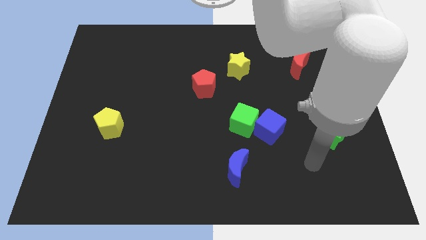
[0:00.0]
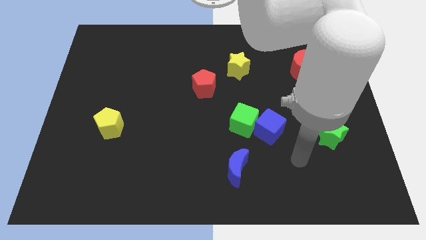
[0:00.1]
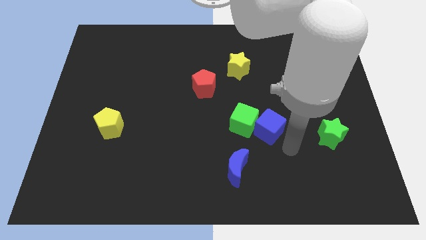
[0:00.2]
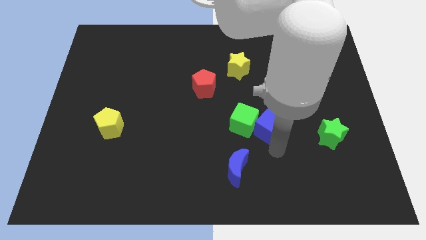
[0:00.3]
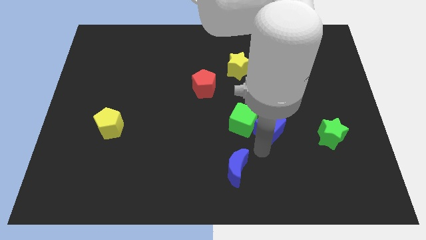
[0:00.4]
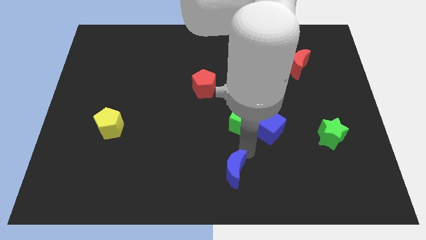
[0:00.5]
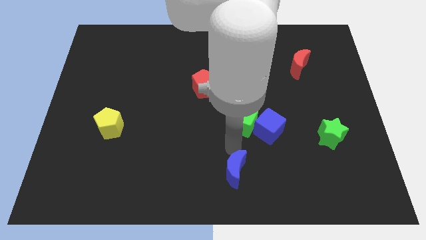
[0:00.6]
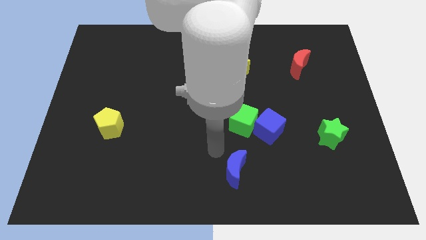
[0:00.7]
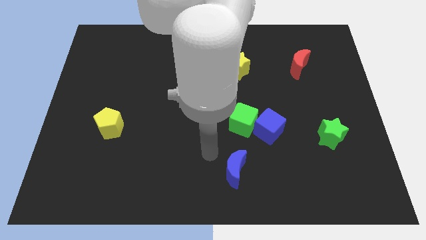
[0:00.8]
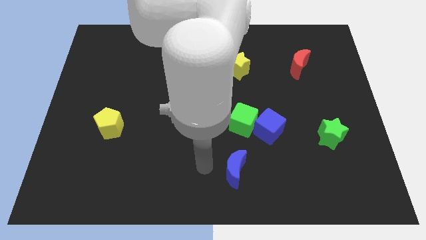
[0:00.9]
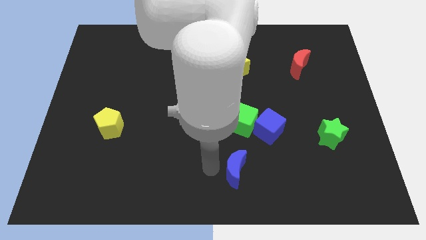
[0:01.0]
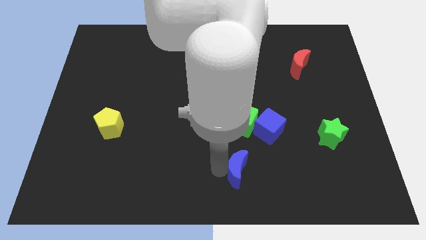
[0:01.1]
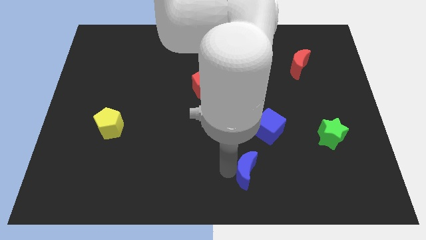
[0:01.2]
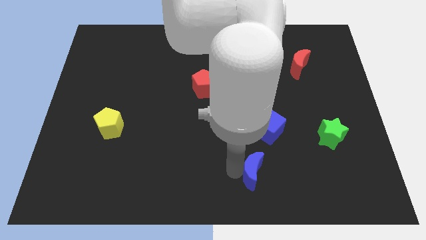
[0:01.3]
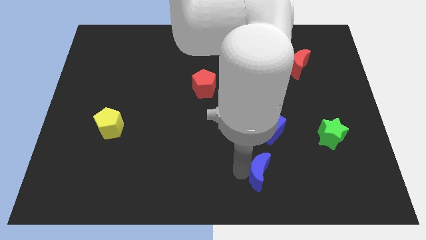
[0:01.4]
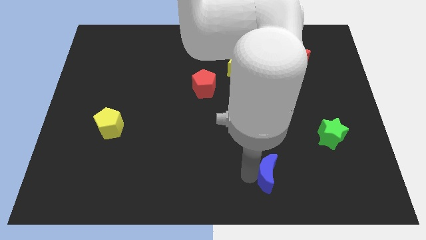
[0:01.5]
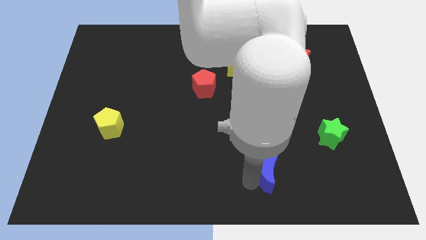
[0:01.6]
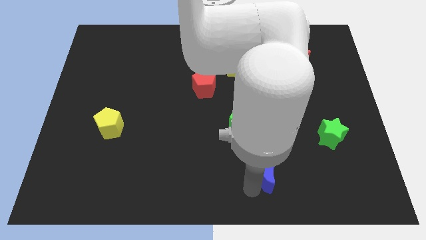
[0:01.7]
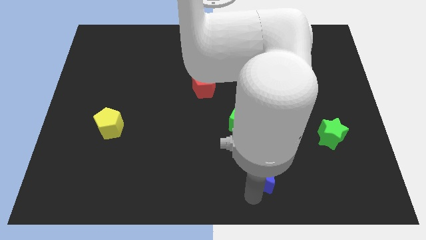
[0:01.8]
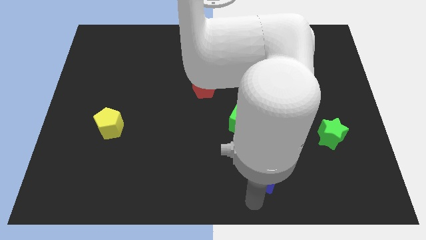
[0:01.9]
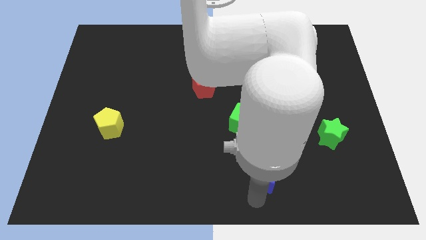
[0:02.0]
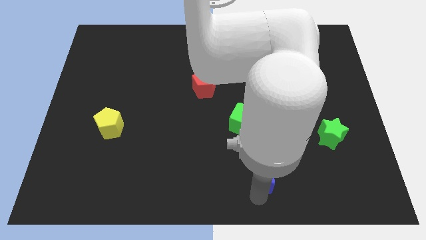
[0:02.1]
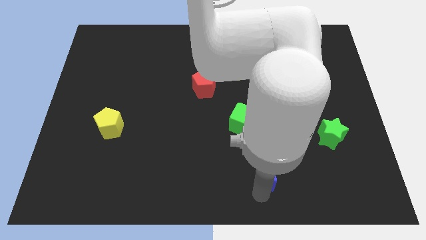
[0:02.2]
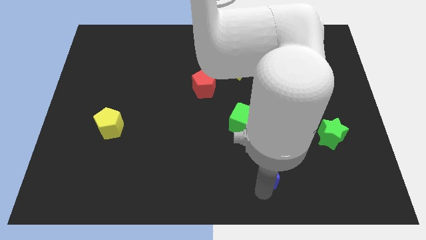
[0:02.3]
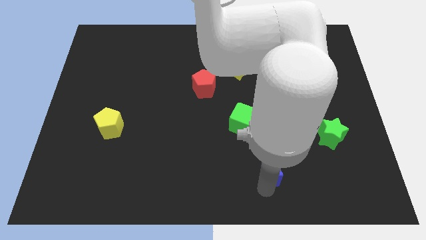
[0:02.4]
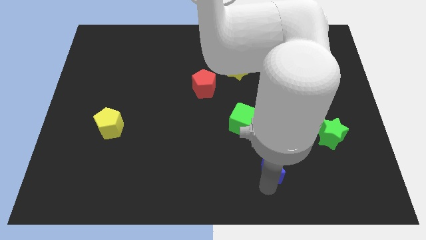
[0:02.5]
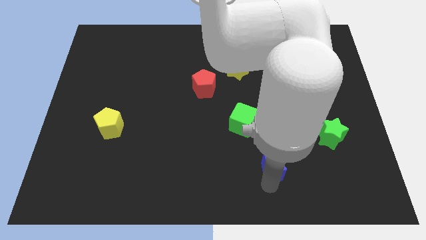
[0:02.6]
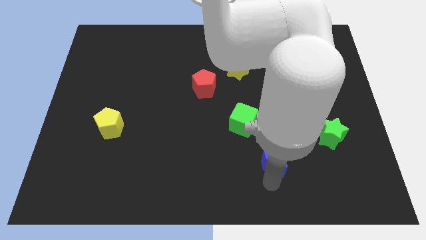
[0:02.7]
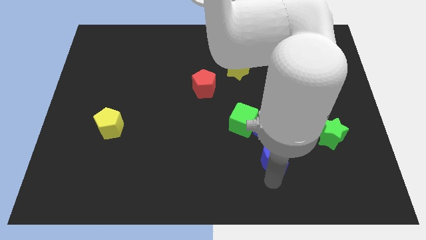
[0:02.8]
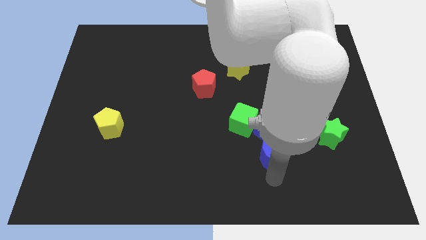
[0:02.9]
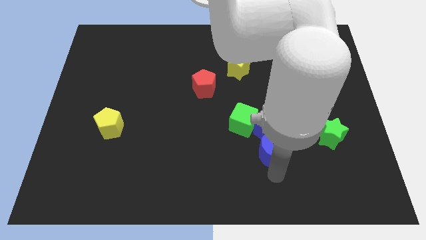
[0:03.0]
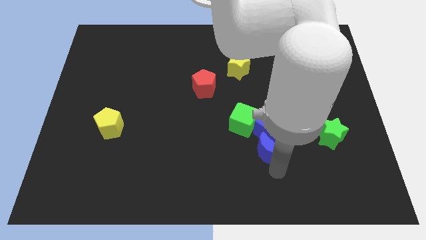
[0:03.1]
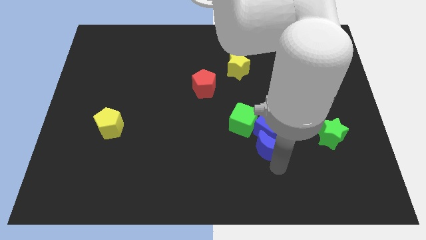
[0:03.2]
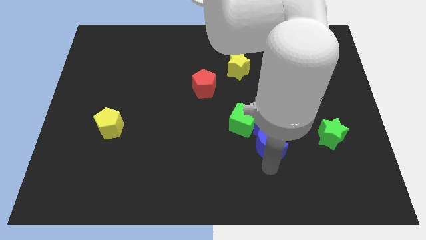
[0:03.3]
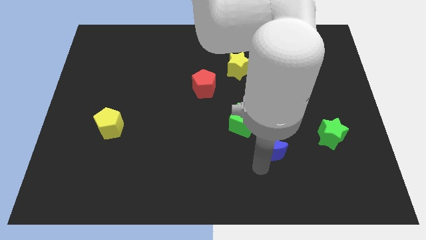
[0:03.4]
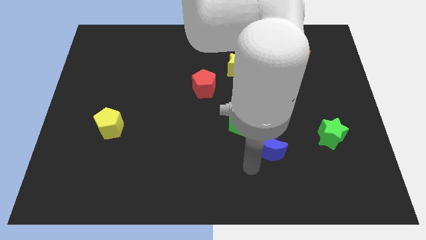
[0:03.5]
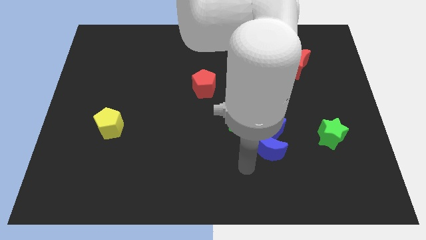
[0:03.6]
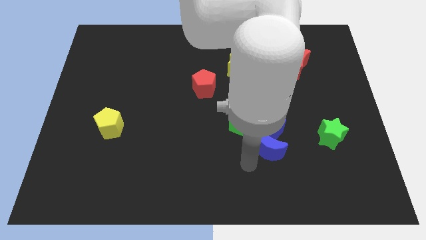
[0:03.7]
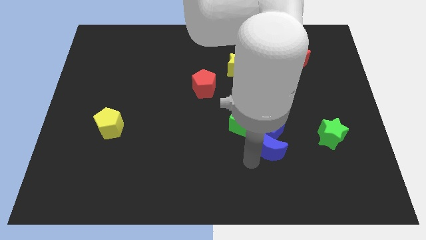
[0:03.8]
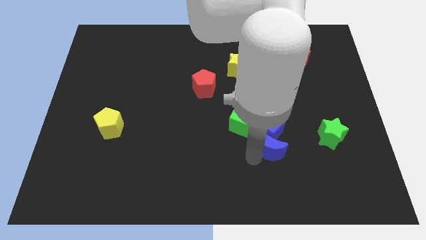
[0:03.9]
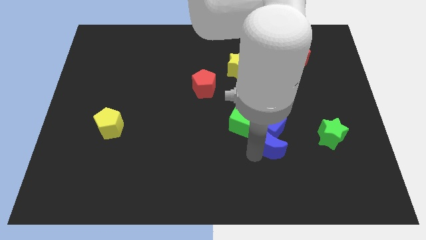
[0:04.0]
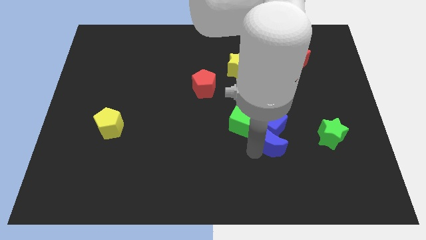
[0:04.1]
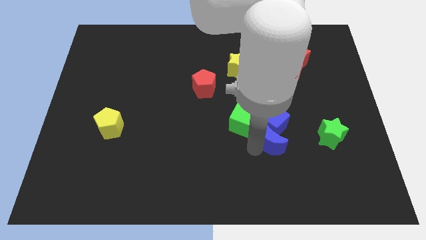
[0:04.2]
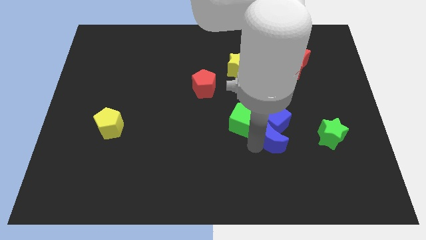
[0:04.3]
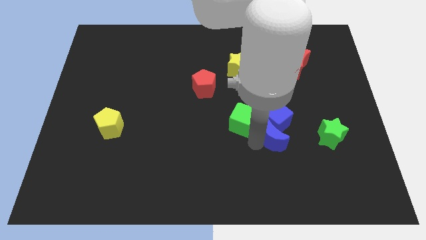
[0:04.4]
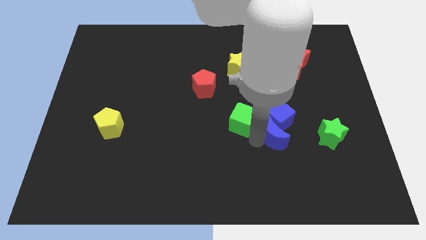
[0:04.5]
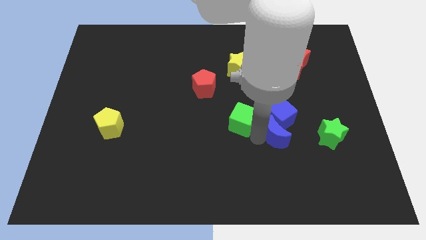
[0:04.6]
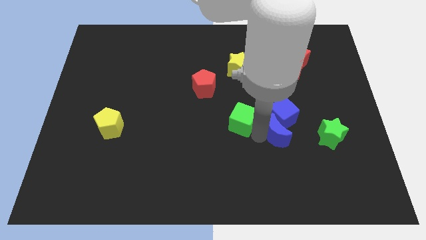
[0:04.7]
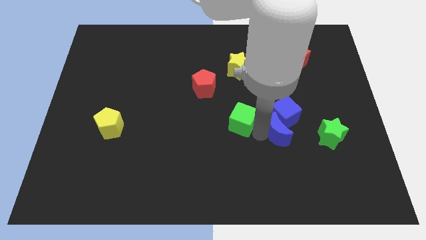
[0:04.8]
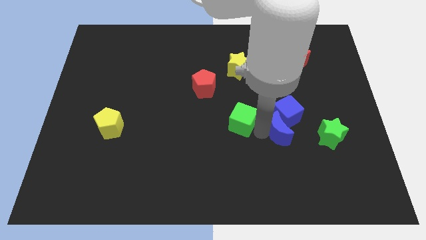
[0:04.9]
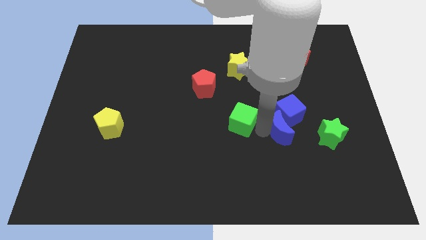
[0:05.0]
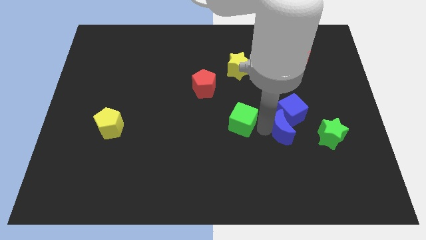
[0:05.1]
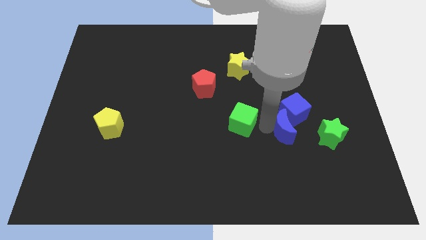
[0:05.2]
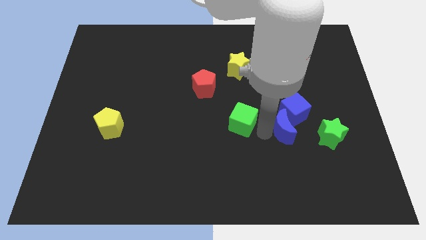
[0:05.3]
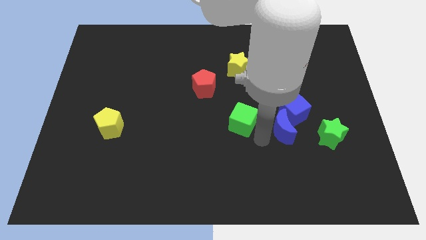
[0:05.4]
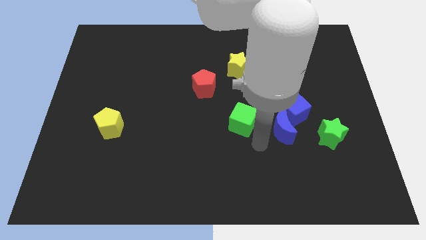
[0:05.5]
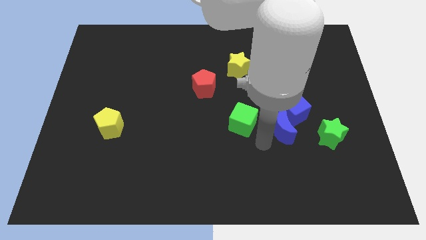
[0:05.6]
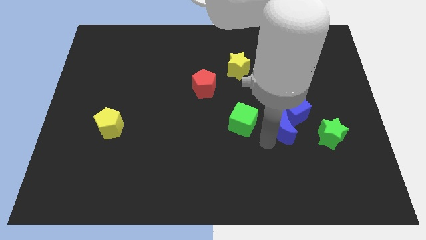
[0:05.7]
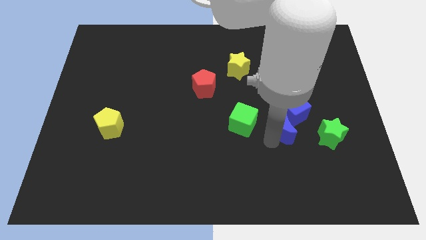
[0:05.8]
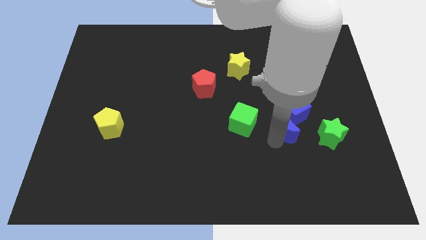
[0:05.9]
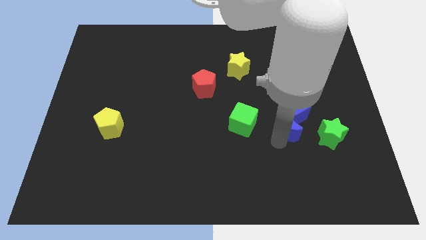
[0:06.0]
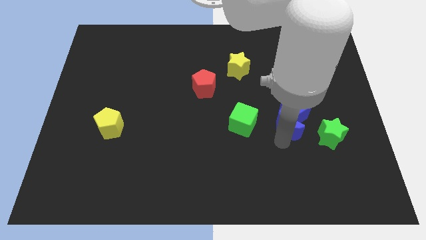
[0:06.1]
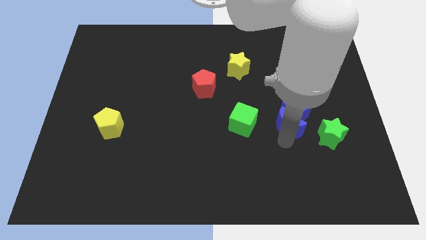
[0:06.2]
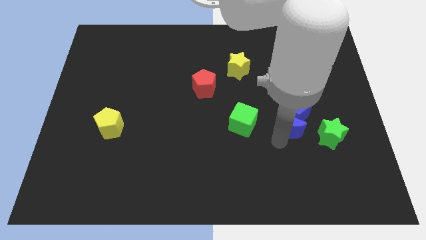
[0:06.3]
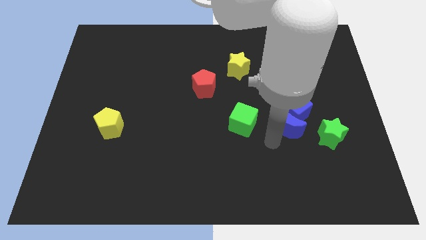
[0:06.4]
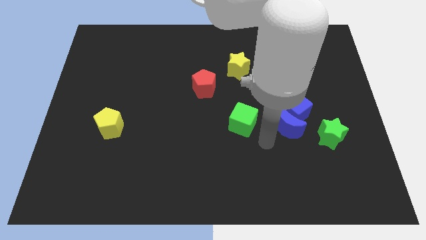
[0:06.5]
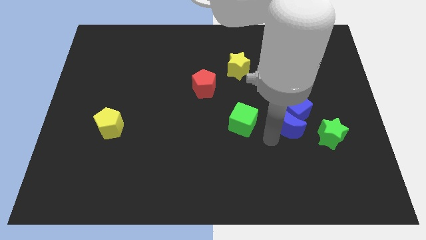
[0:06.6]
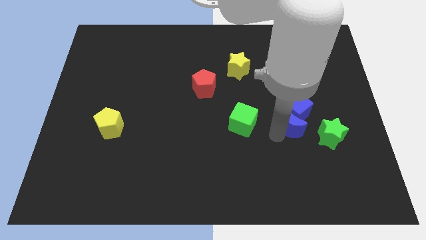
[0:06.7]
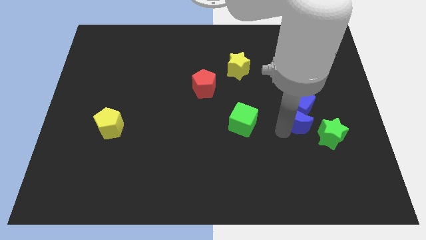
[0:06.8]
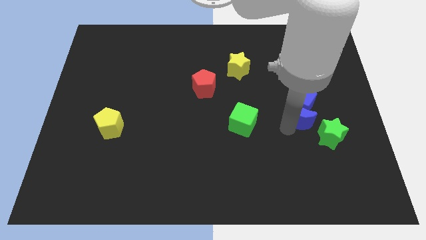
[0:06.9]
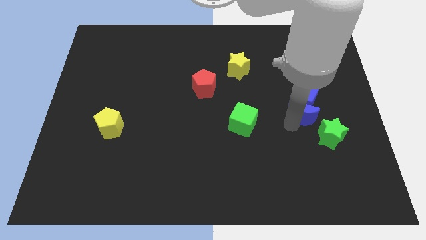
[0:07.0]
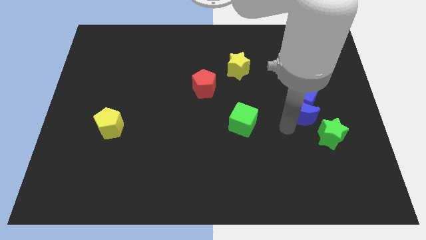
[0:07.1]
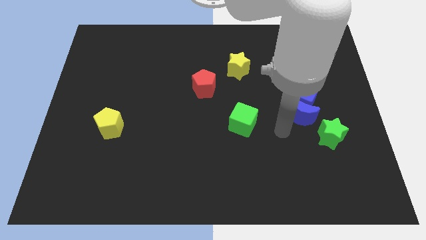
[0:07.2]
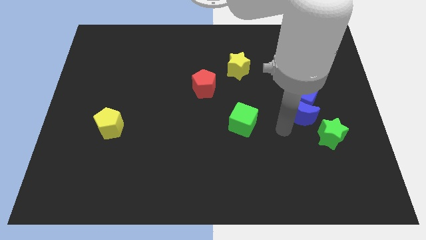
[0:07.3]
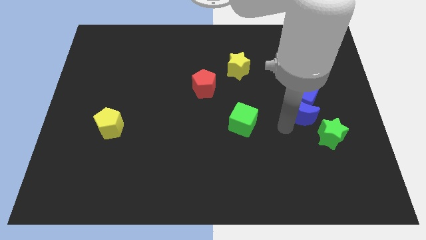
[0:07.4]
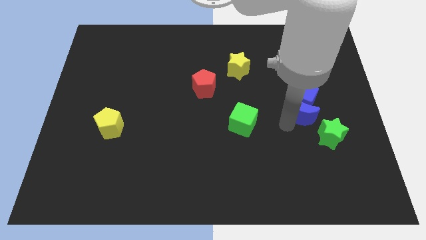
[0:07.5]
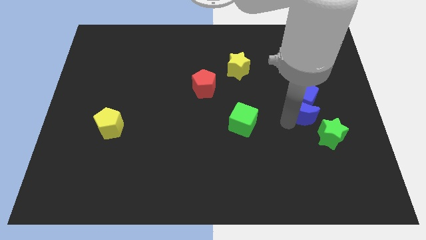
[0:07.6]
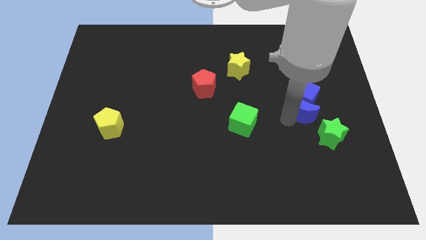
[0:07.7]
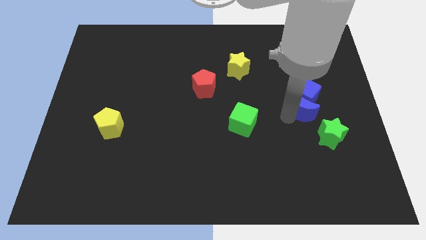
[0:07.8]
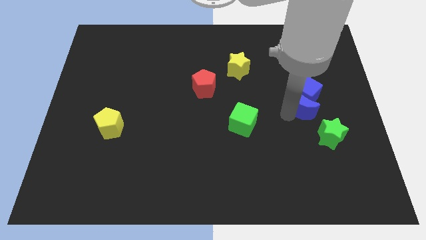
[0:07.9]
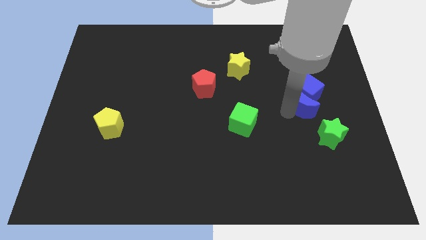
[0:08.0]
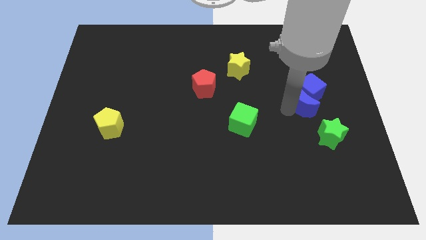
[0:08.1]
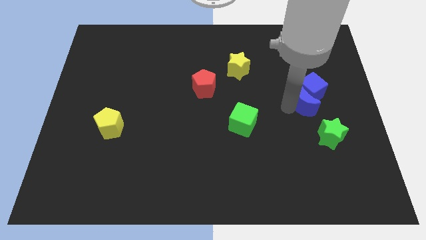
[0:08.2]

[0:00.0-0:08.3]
put the blue moon to the top of the green star

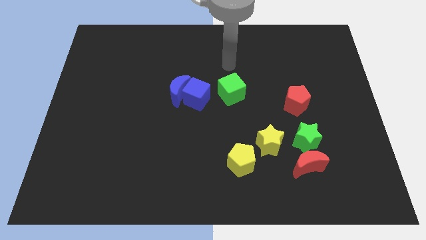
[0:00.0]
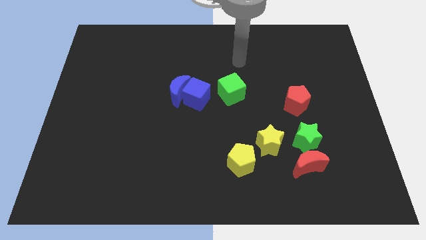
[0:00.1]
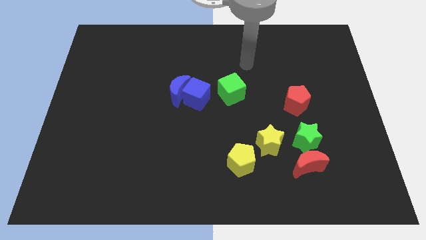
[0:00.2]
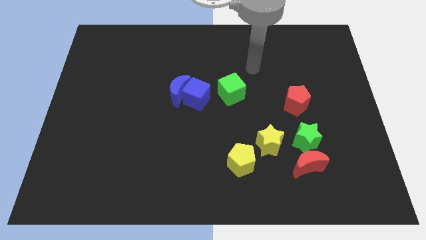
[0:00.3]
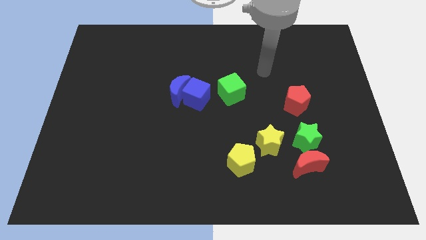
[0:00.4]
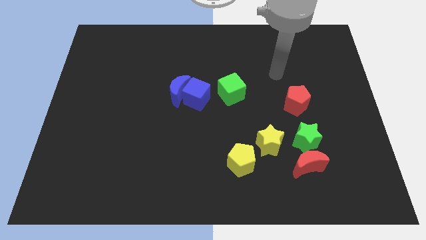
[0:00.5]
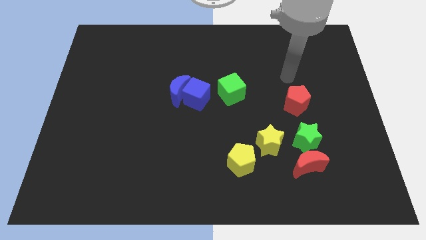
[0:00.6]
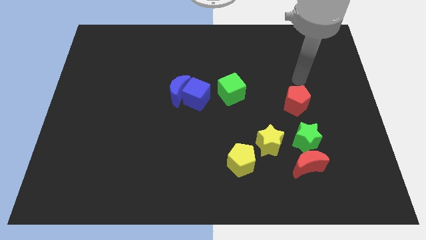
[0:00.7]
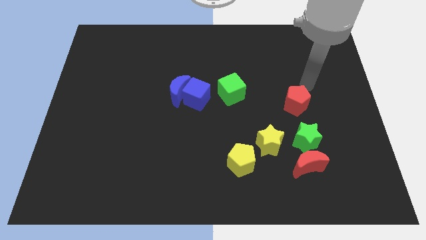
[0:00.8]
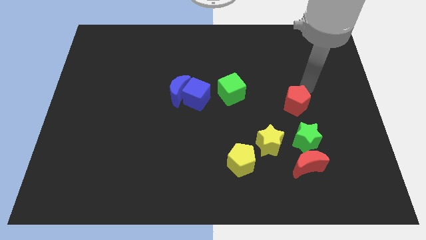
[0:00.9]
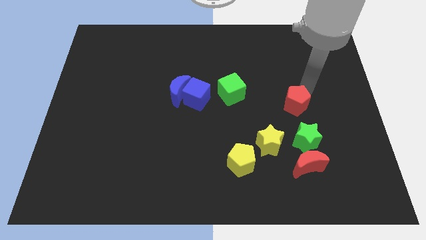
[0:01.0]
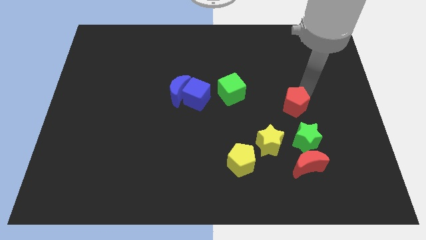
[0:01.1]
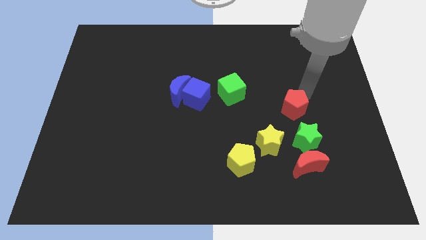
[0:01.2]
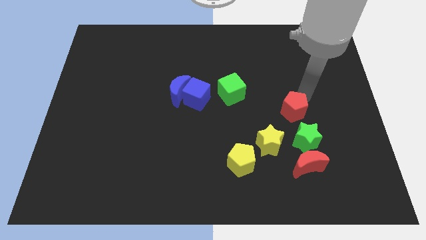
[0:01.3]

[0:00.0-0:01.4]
push the red pentagon to the top left side of the green star
